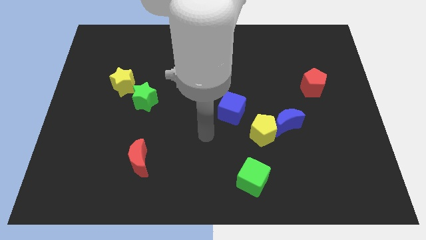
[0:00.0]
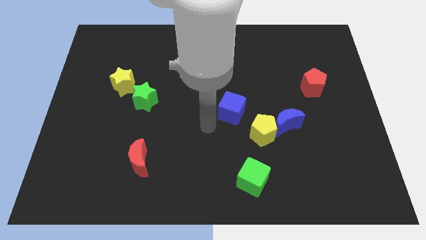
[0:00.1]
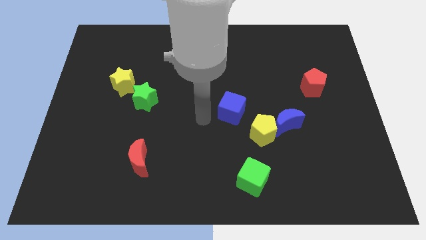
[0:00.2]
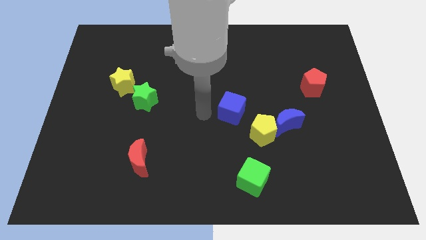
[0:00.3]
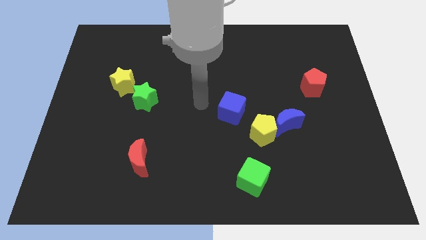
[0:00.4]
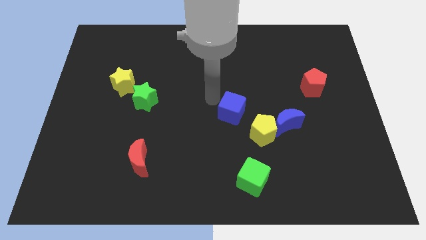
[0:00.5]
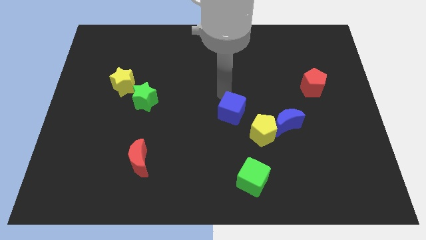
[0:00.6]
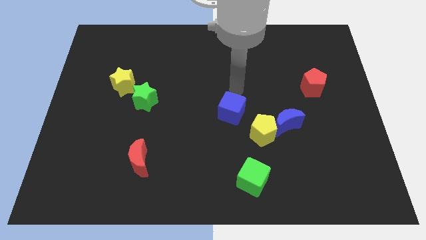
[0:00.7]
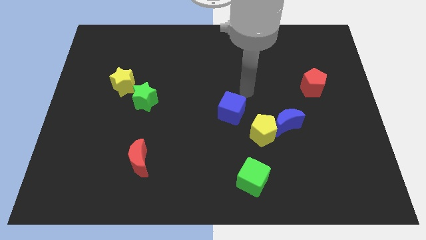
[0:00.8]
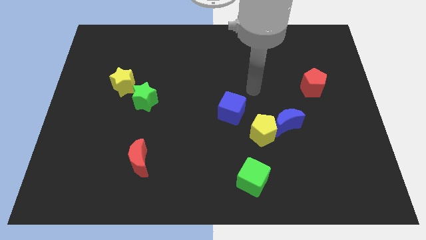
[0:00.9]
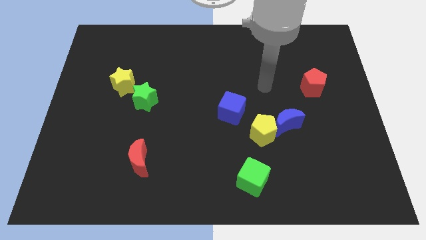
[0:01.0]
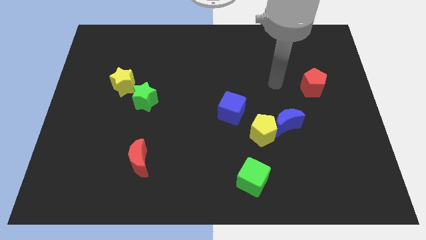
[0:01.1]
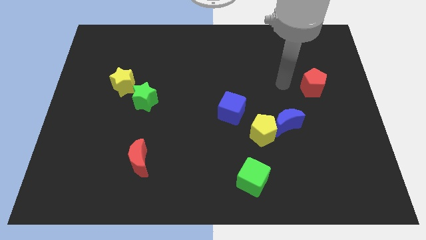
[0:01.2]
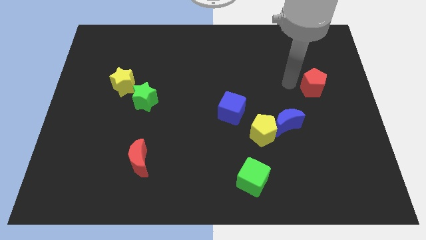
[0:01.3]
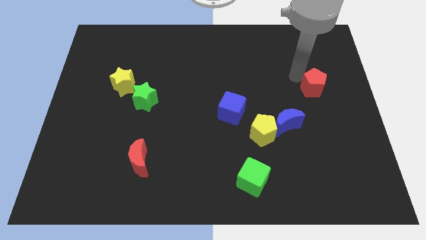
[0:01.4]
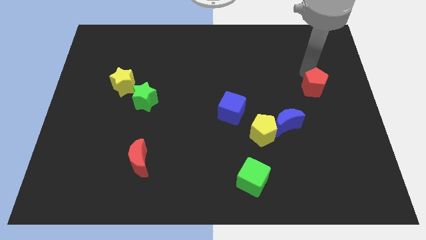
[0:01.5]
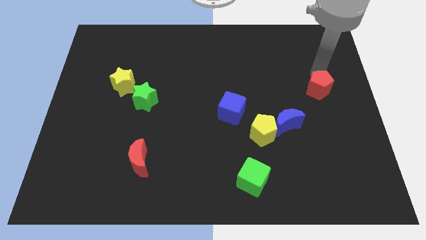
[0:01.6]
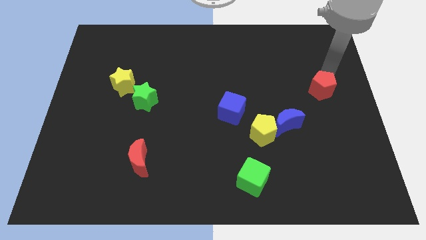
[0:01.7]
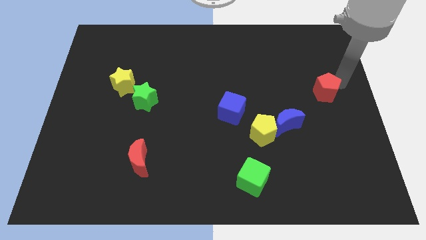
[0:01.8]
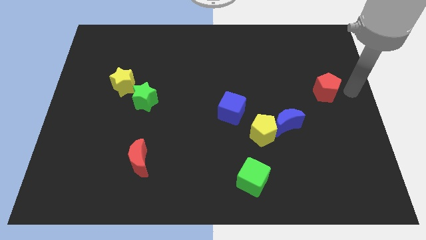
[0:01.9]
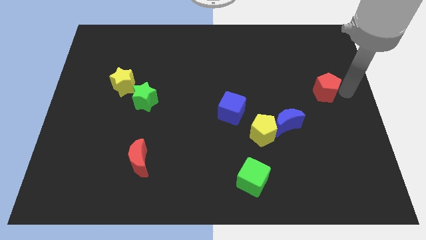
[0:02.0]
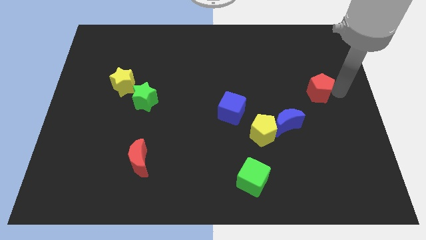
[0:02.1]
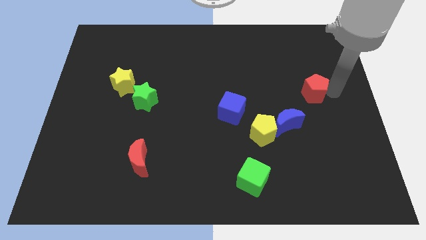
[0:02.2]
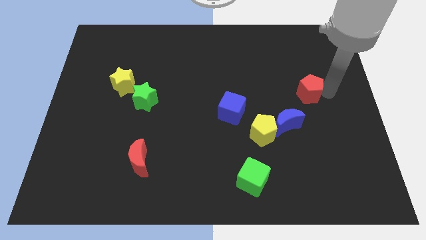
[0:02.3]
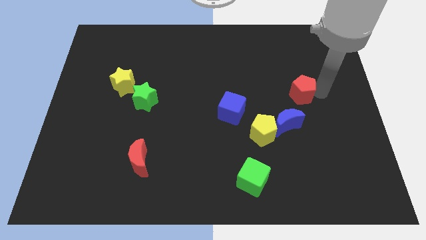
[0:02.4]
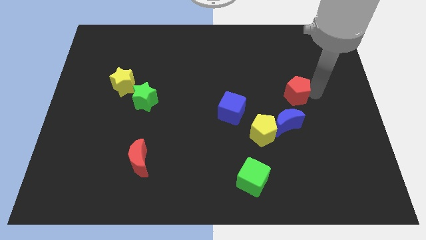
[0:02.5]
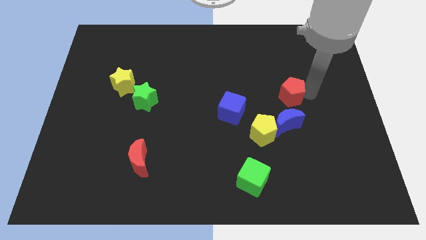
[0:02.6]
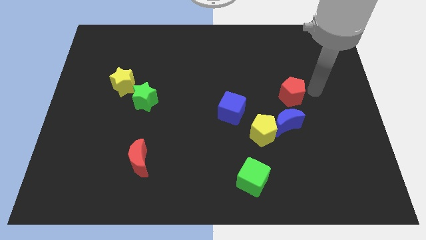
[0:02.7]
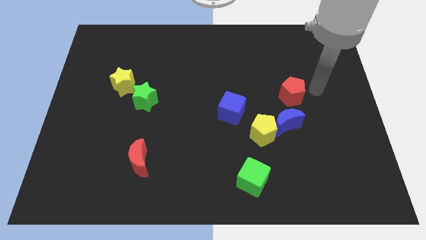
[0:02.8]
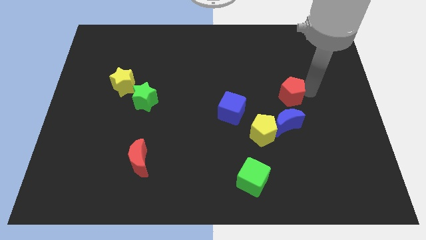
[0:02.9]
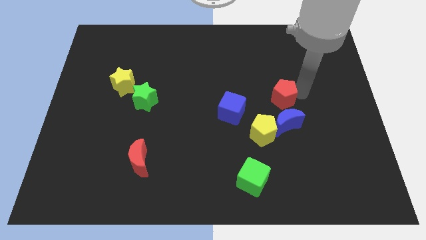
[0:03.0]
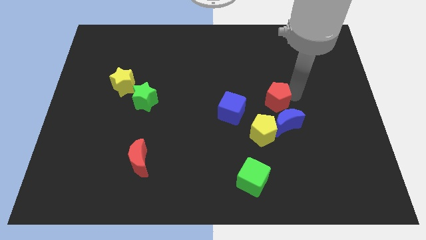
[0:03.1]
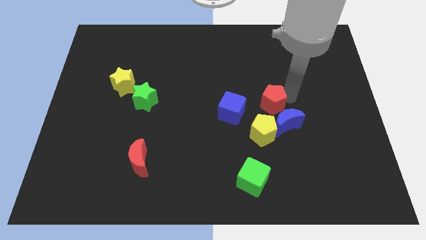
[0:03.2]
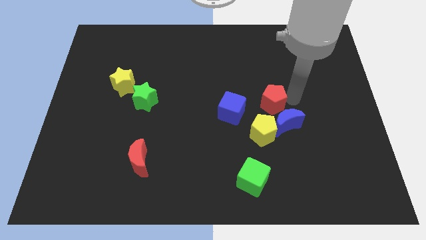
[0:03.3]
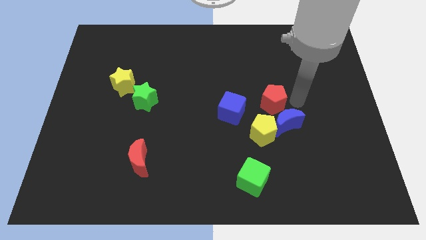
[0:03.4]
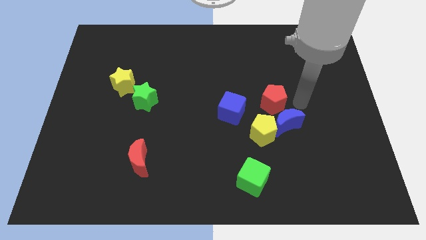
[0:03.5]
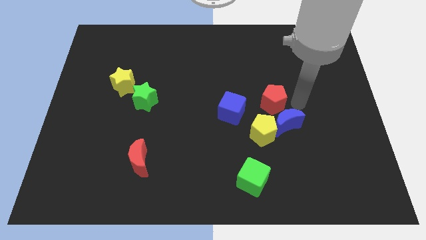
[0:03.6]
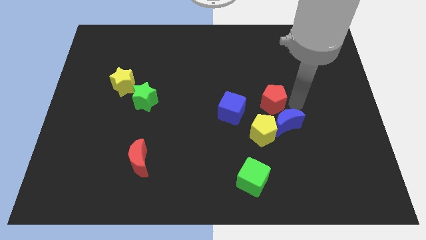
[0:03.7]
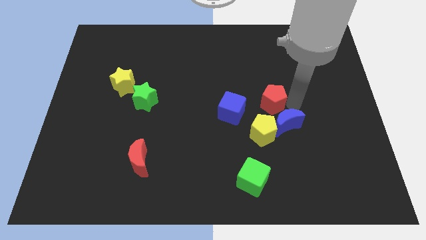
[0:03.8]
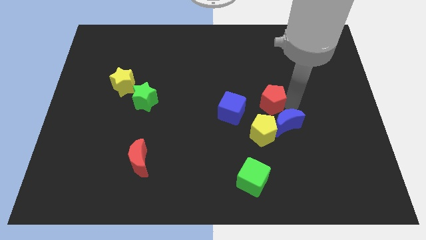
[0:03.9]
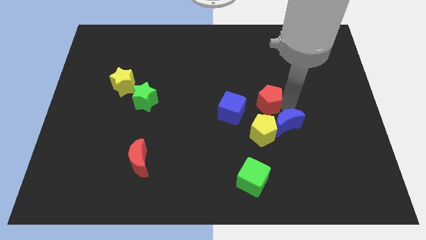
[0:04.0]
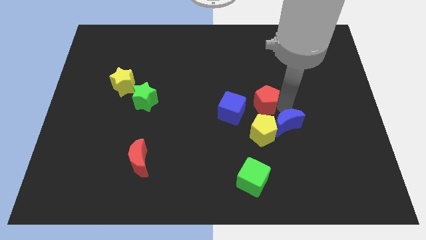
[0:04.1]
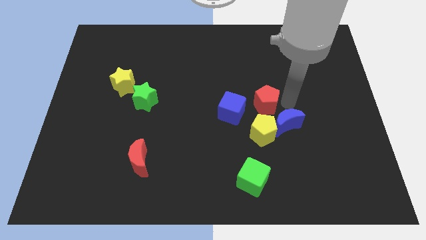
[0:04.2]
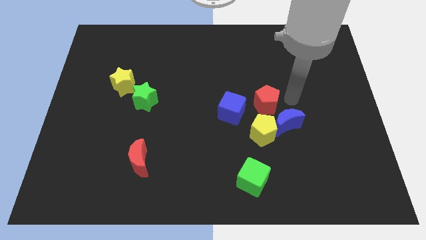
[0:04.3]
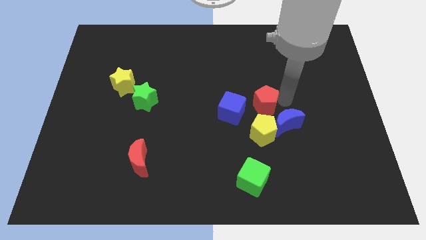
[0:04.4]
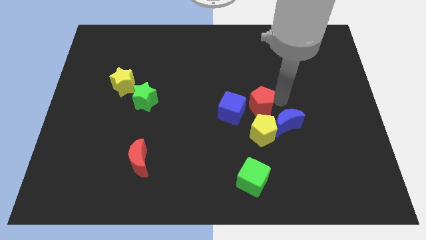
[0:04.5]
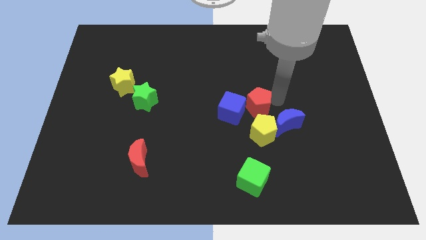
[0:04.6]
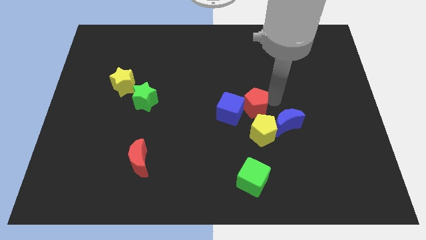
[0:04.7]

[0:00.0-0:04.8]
slide the red pentagon to the blue cube

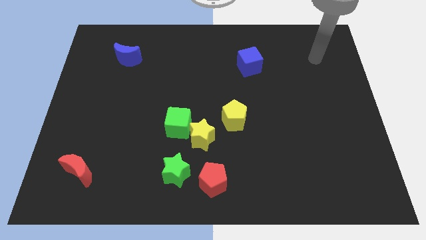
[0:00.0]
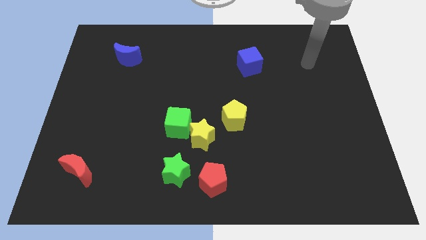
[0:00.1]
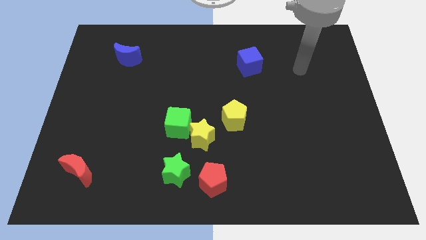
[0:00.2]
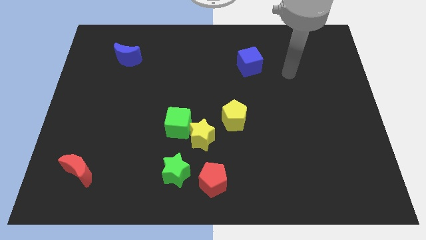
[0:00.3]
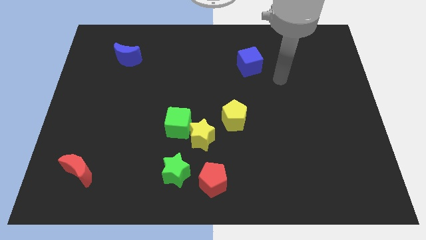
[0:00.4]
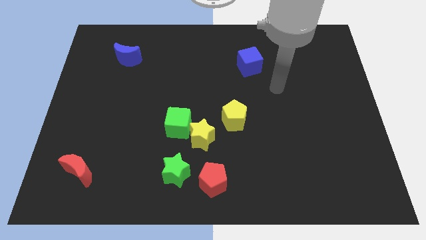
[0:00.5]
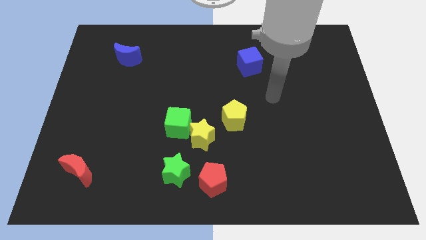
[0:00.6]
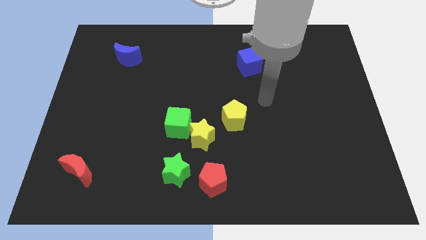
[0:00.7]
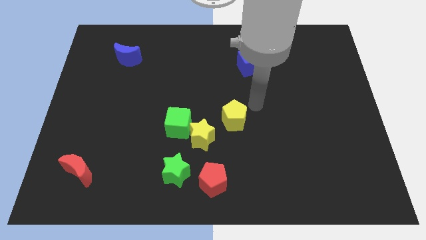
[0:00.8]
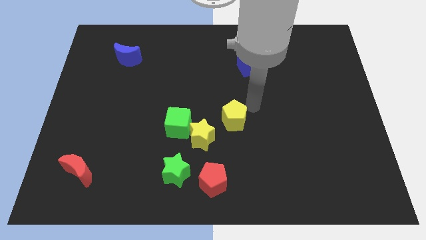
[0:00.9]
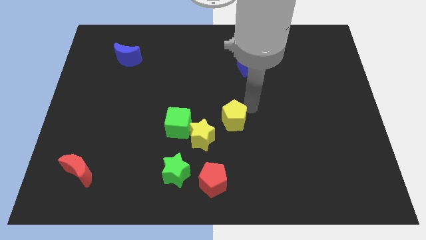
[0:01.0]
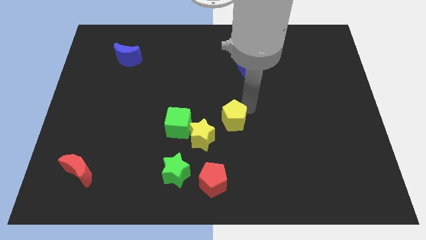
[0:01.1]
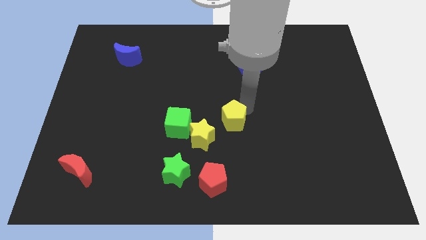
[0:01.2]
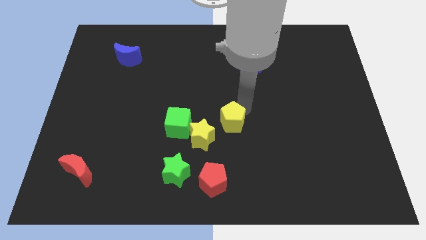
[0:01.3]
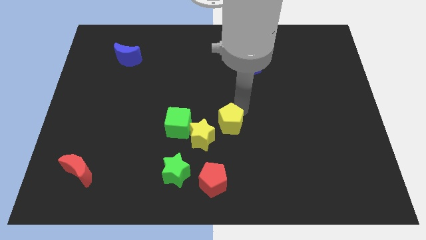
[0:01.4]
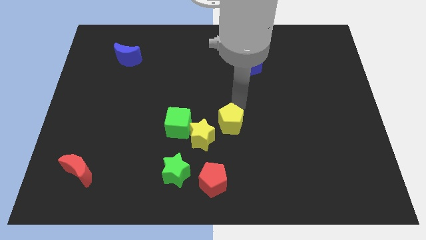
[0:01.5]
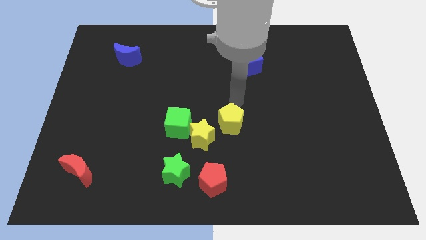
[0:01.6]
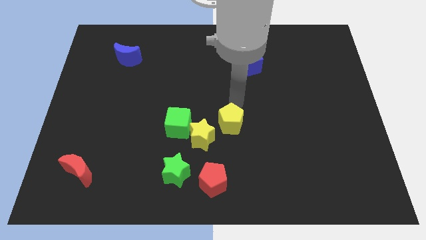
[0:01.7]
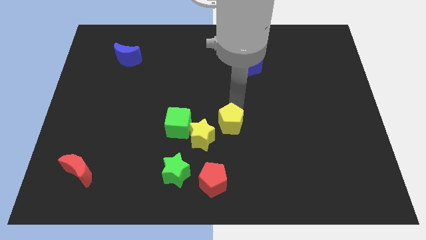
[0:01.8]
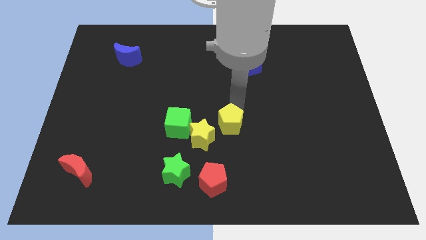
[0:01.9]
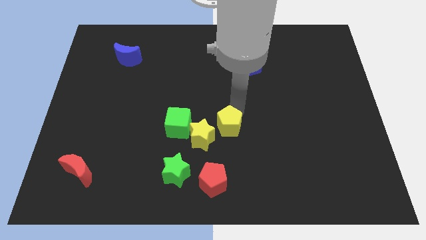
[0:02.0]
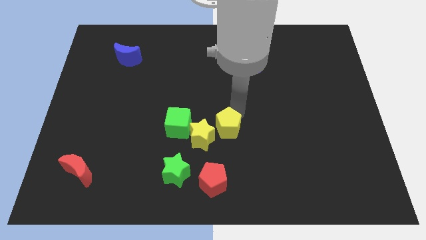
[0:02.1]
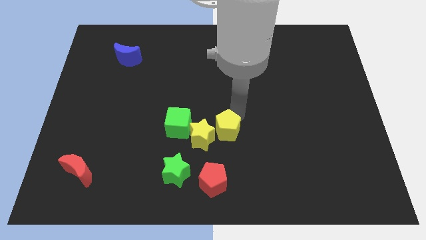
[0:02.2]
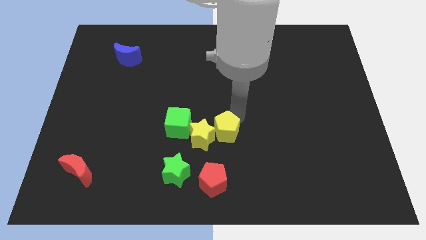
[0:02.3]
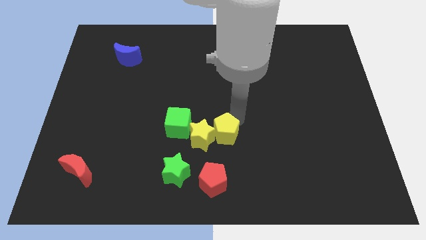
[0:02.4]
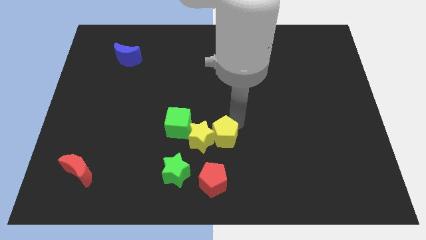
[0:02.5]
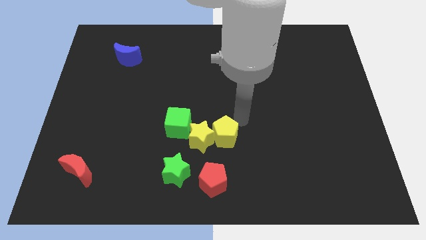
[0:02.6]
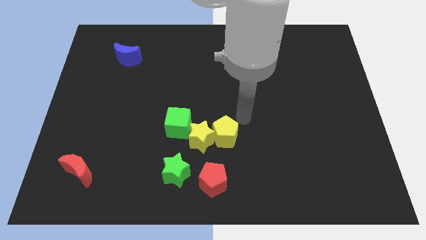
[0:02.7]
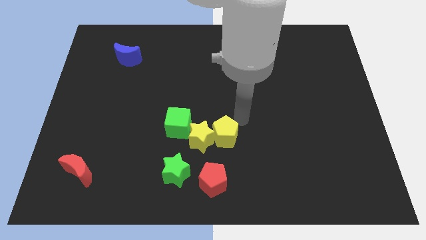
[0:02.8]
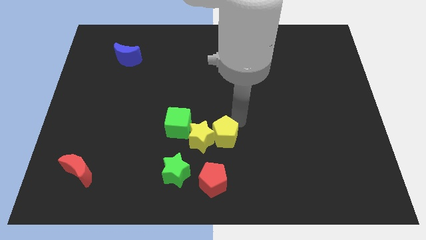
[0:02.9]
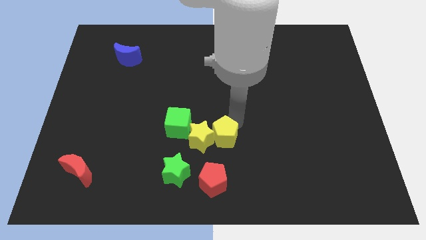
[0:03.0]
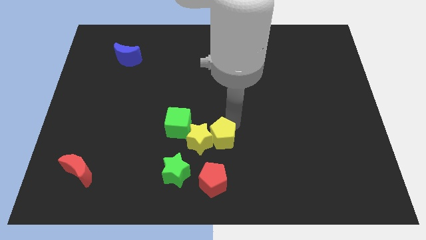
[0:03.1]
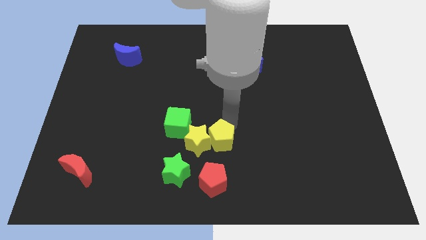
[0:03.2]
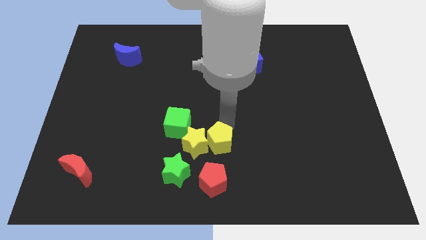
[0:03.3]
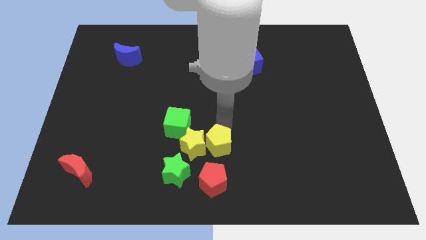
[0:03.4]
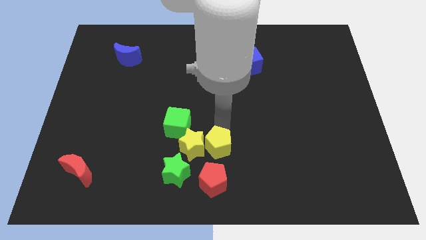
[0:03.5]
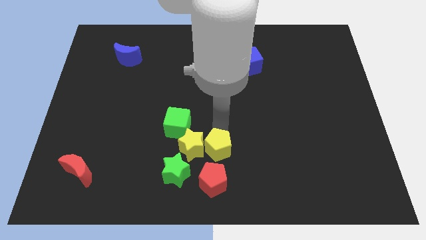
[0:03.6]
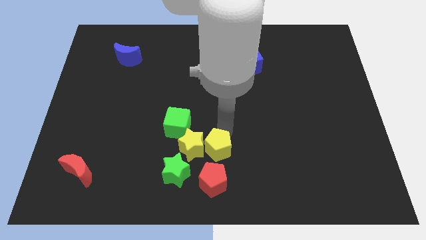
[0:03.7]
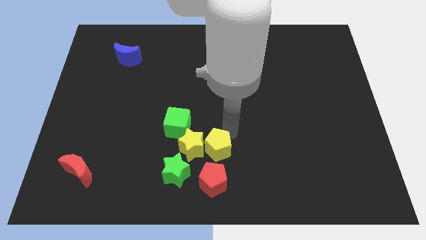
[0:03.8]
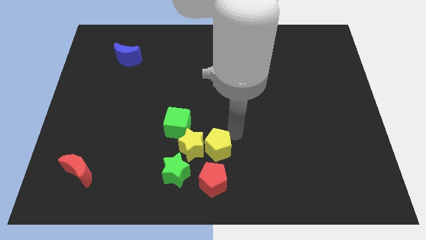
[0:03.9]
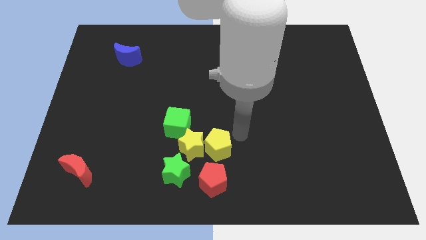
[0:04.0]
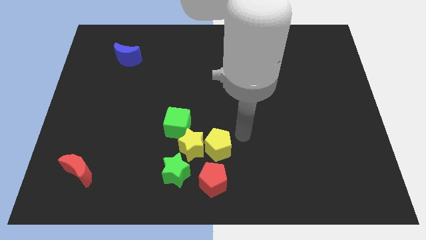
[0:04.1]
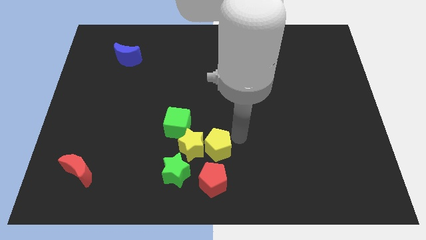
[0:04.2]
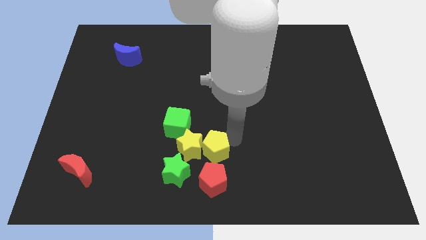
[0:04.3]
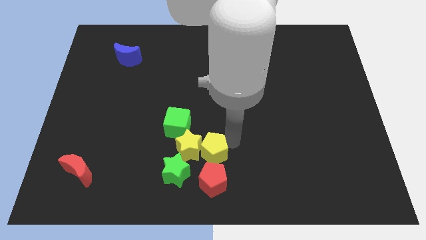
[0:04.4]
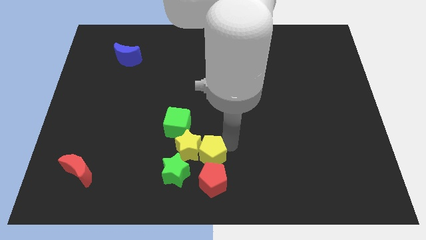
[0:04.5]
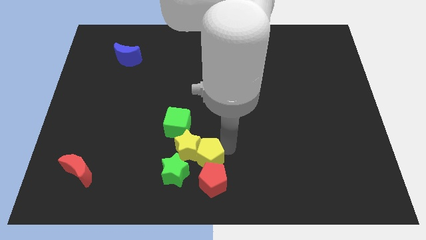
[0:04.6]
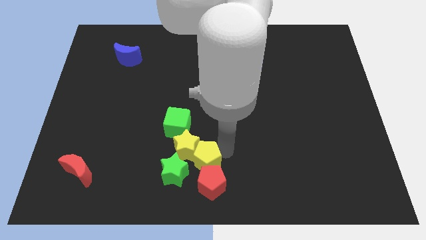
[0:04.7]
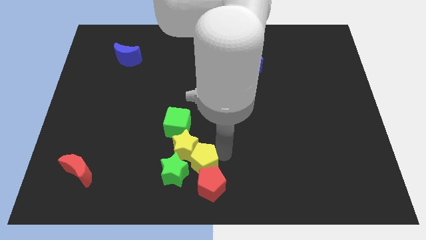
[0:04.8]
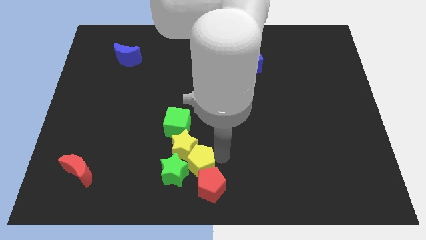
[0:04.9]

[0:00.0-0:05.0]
put the yellow pentagon to the green star
